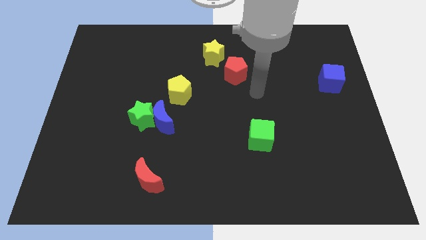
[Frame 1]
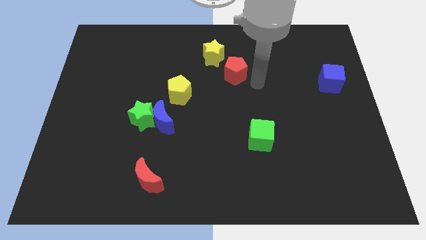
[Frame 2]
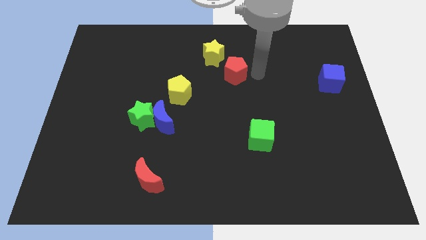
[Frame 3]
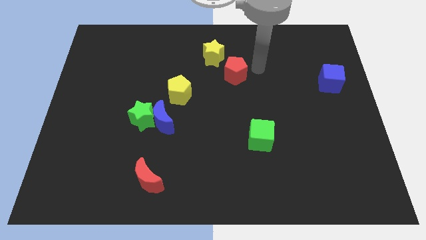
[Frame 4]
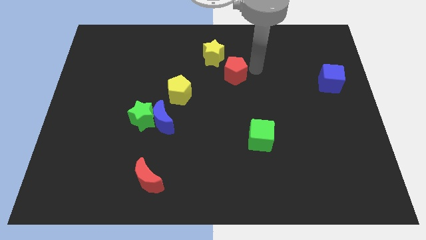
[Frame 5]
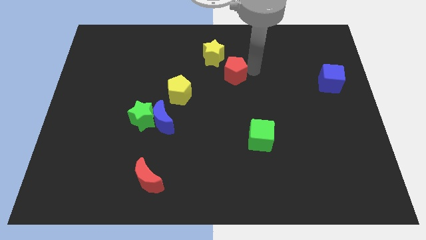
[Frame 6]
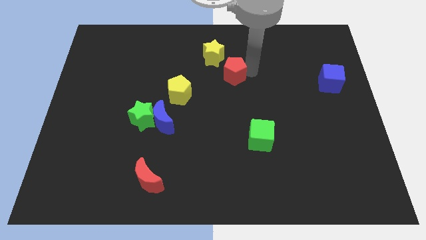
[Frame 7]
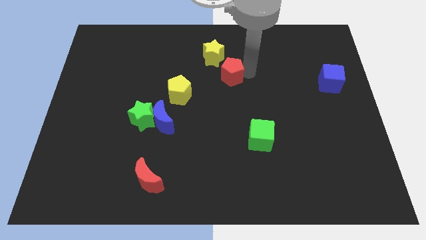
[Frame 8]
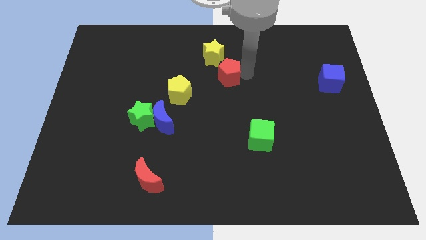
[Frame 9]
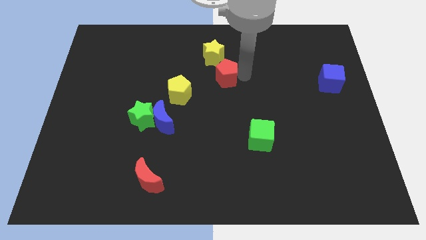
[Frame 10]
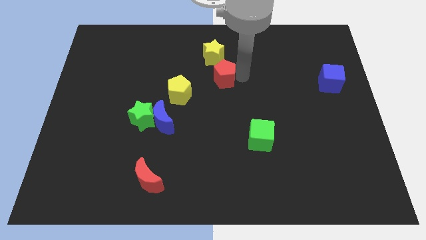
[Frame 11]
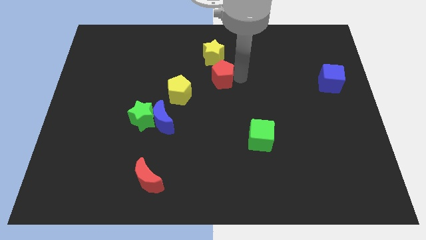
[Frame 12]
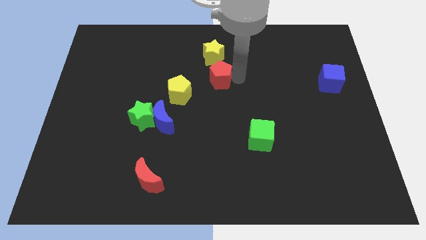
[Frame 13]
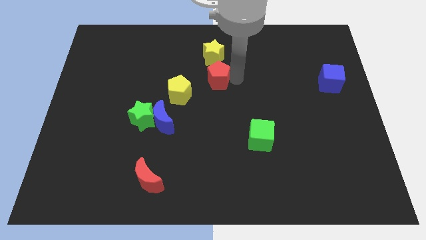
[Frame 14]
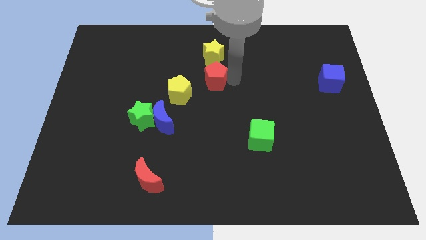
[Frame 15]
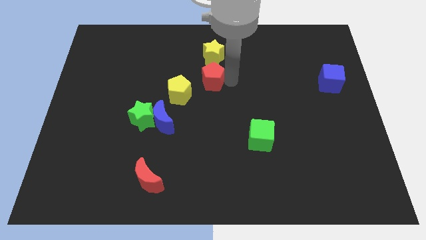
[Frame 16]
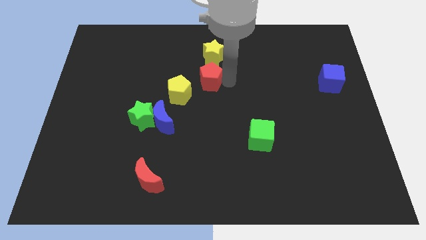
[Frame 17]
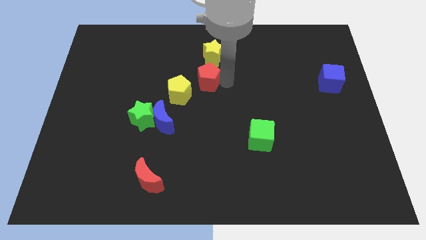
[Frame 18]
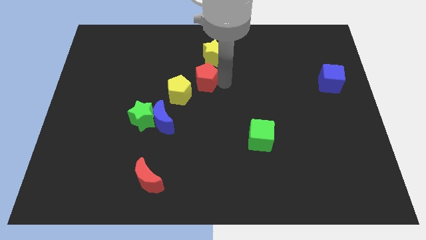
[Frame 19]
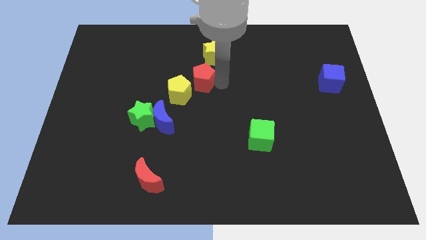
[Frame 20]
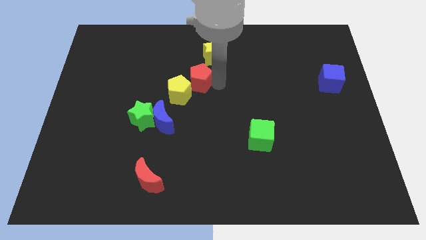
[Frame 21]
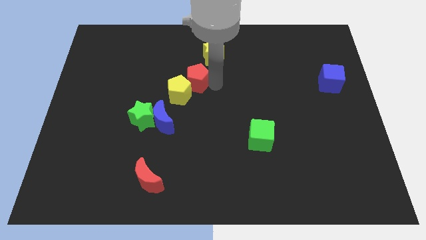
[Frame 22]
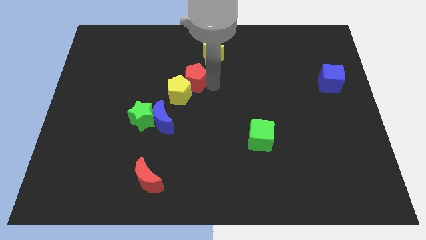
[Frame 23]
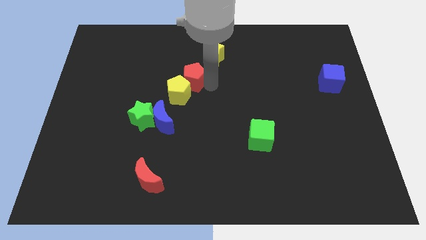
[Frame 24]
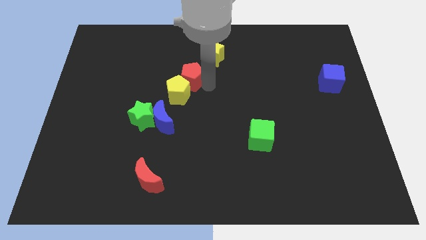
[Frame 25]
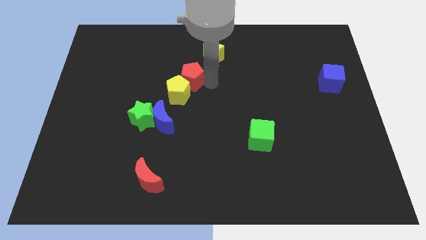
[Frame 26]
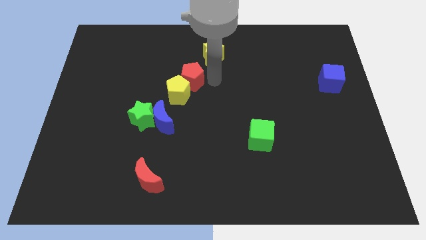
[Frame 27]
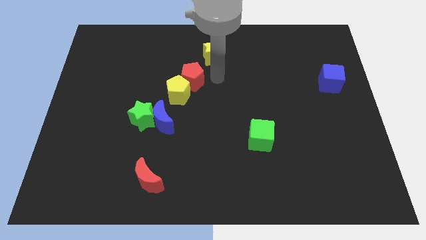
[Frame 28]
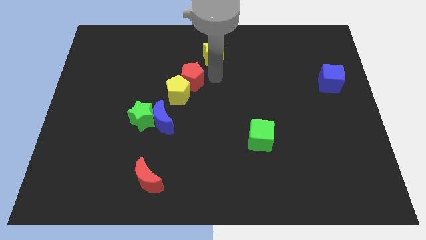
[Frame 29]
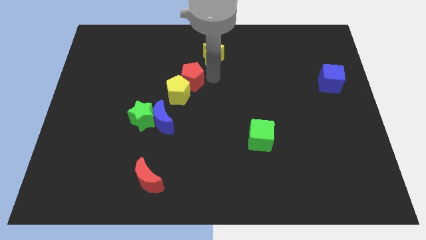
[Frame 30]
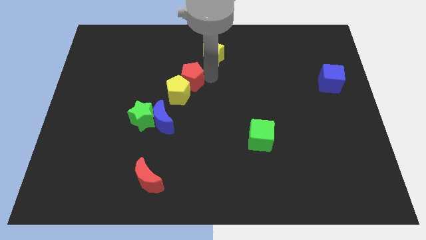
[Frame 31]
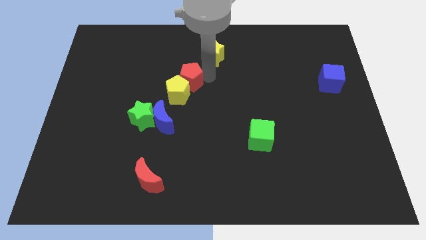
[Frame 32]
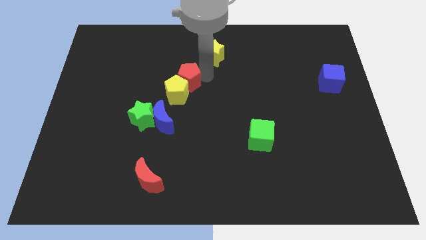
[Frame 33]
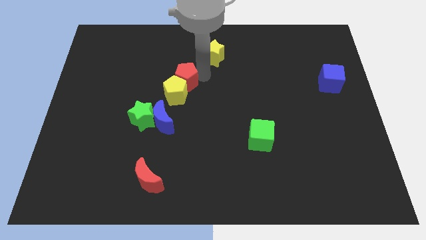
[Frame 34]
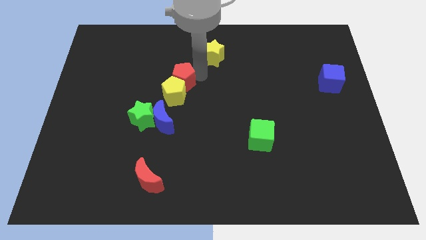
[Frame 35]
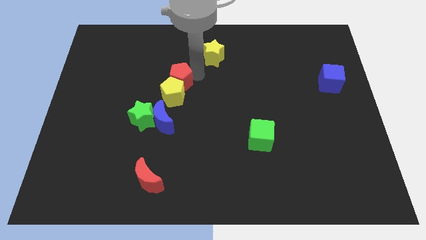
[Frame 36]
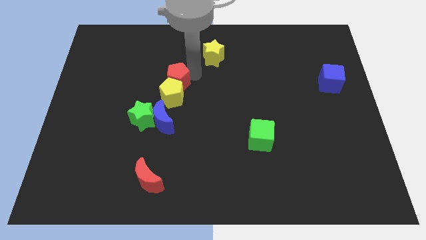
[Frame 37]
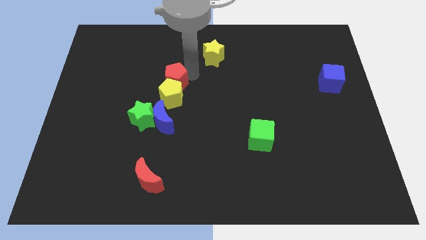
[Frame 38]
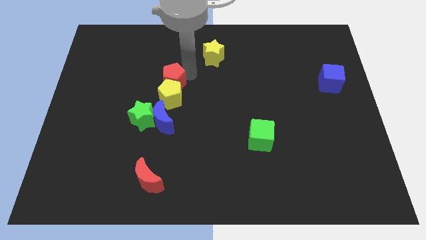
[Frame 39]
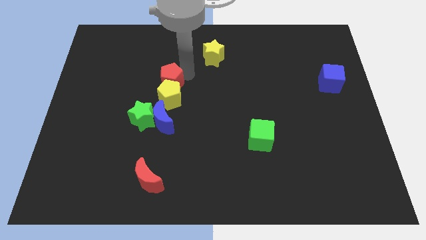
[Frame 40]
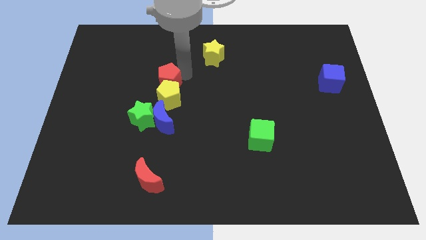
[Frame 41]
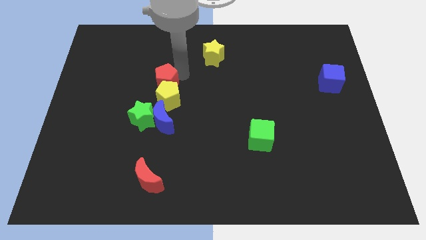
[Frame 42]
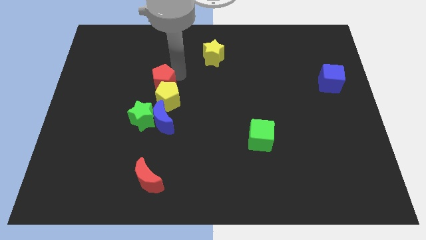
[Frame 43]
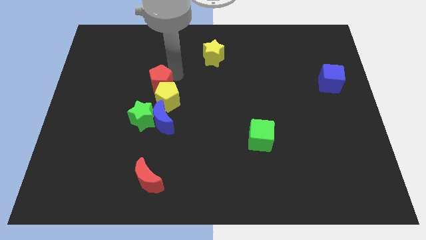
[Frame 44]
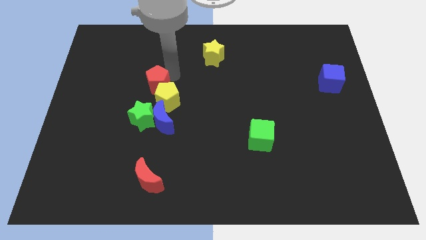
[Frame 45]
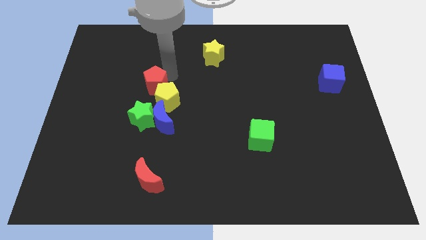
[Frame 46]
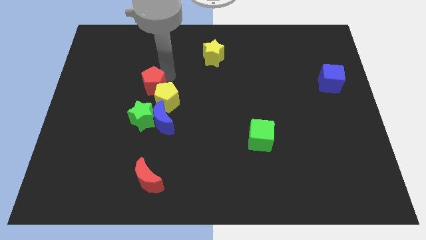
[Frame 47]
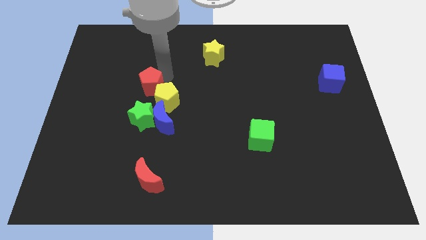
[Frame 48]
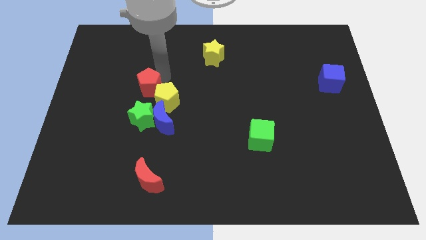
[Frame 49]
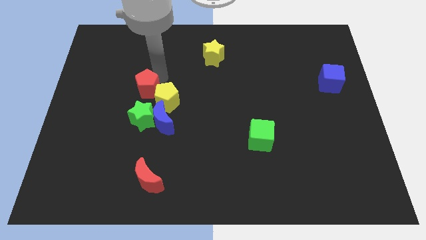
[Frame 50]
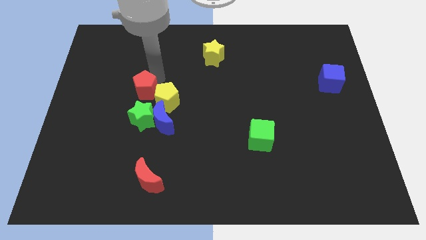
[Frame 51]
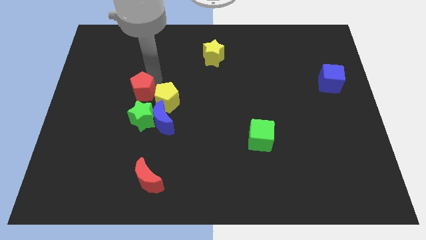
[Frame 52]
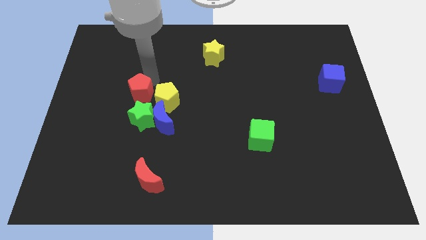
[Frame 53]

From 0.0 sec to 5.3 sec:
slide the red pentagon to the top left side of the green star

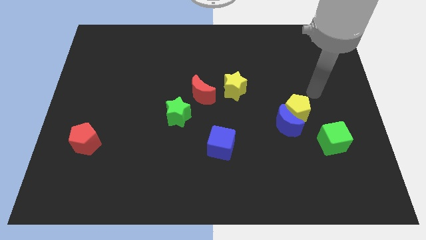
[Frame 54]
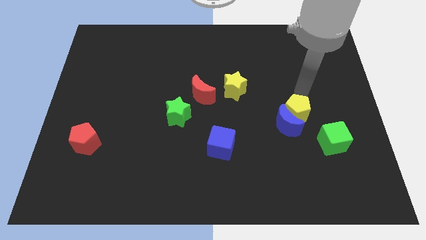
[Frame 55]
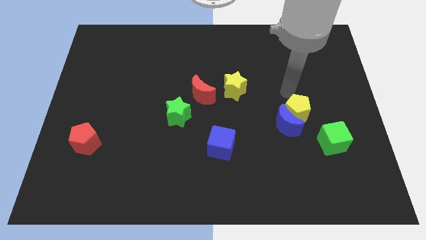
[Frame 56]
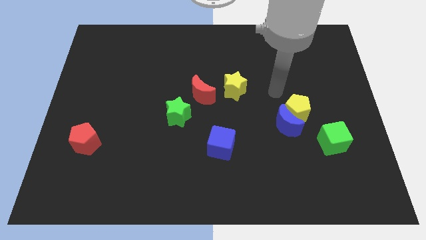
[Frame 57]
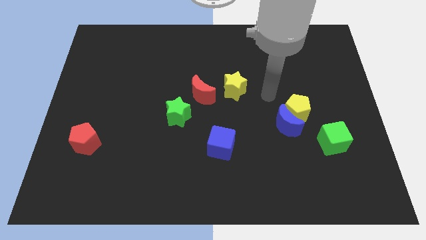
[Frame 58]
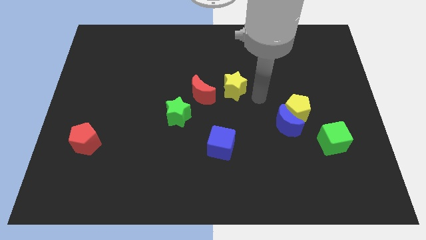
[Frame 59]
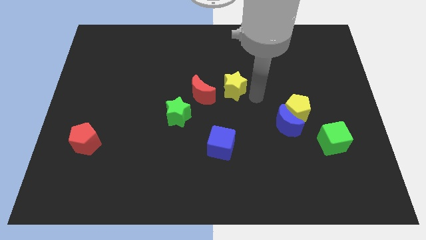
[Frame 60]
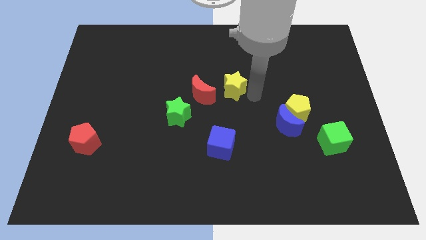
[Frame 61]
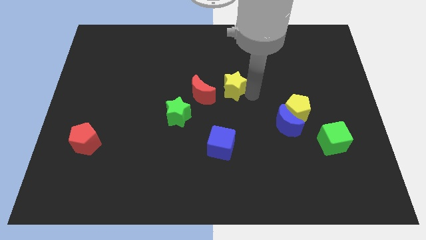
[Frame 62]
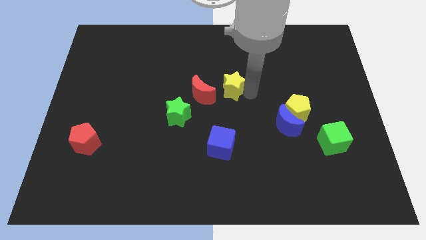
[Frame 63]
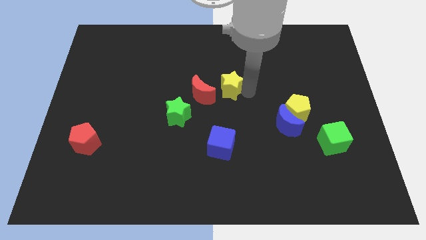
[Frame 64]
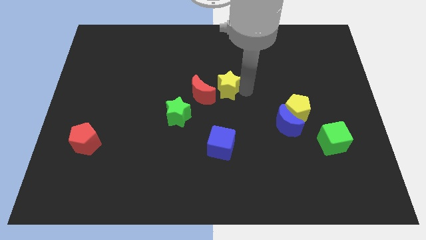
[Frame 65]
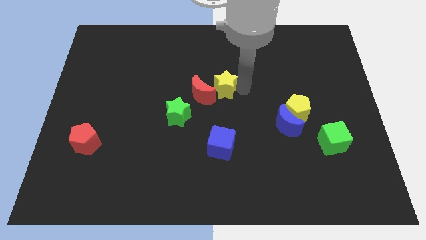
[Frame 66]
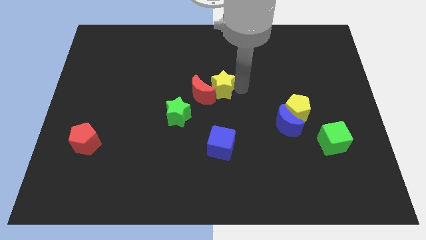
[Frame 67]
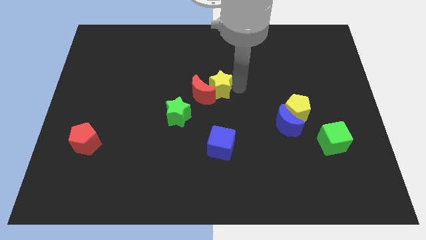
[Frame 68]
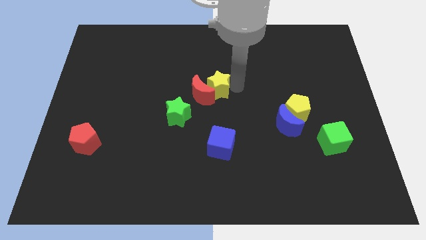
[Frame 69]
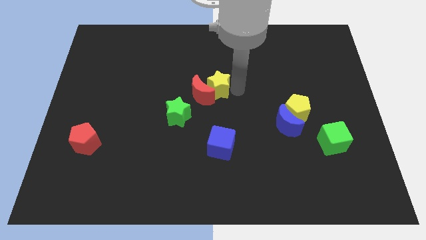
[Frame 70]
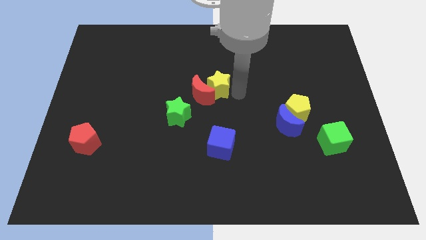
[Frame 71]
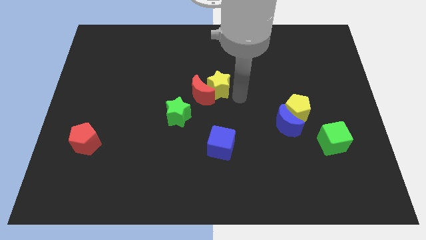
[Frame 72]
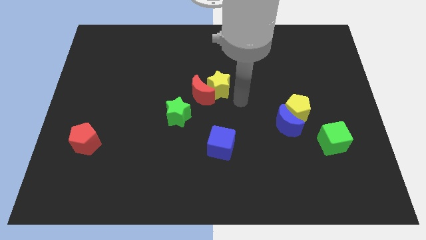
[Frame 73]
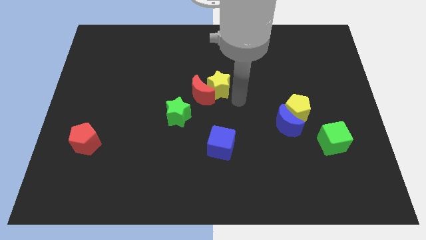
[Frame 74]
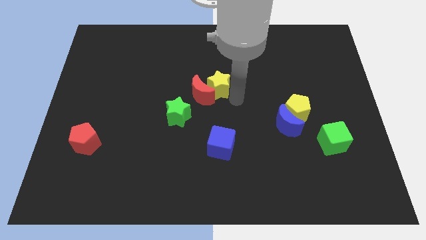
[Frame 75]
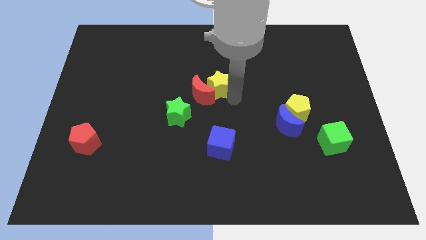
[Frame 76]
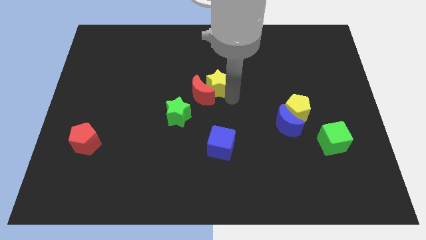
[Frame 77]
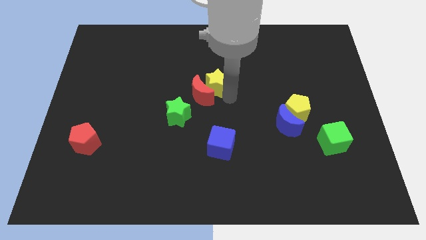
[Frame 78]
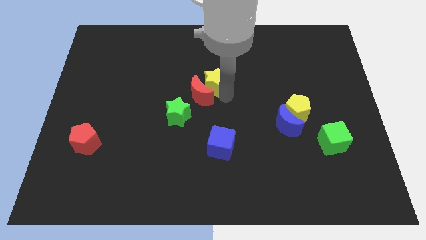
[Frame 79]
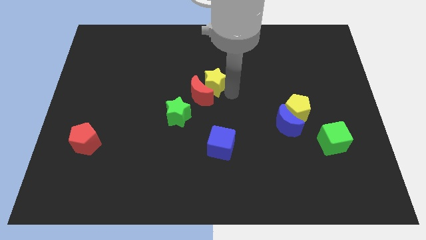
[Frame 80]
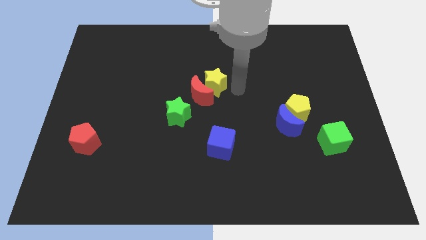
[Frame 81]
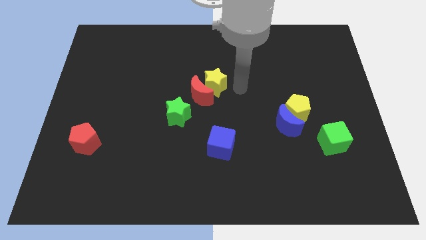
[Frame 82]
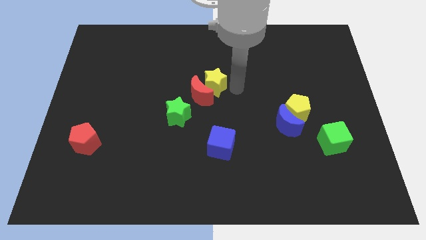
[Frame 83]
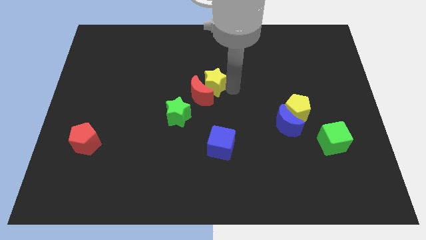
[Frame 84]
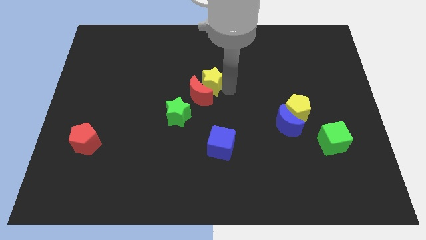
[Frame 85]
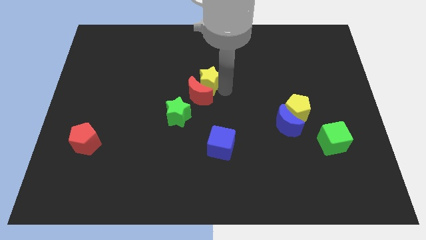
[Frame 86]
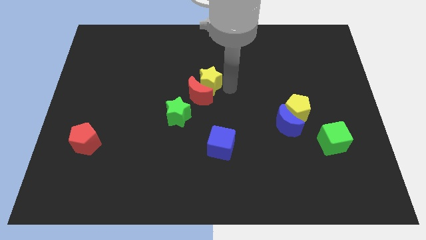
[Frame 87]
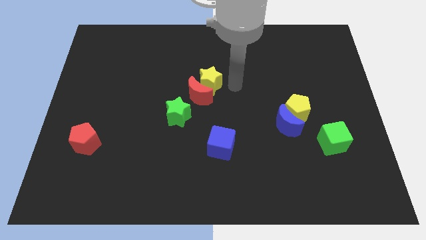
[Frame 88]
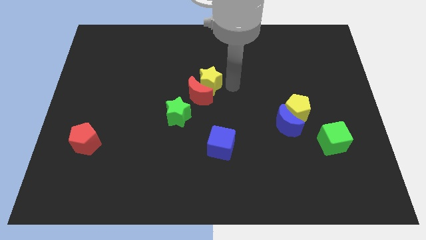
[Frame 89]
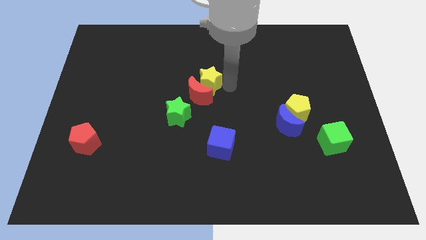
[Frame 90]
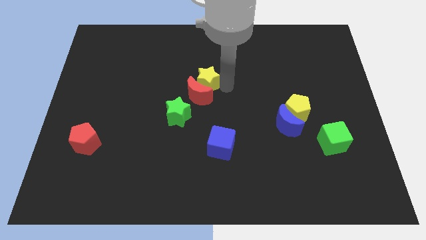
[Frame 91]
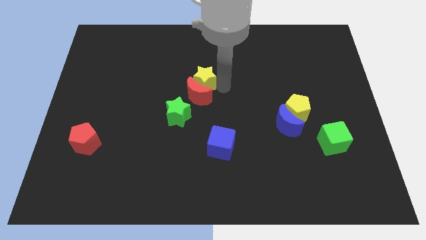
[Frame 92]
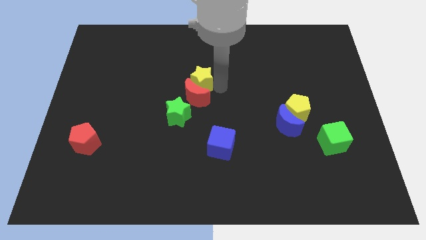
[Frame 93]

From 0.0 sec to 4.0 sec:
push the yellow star above the green star
